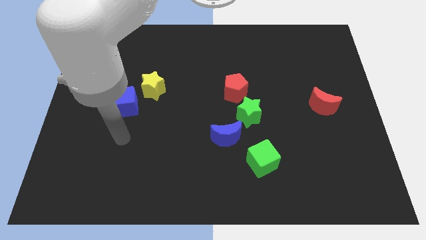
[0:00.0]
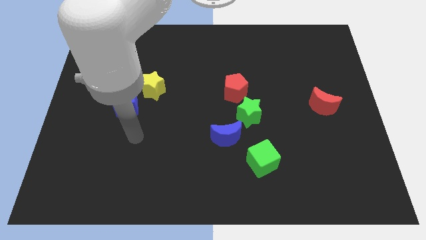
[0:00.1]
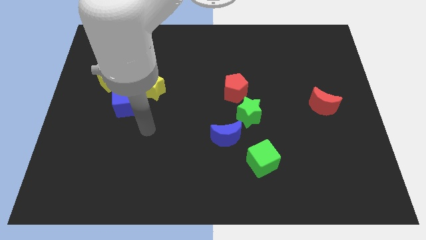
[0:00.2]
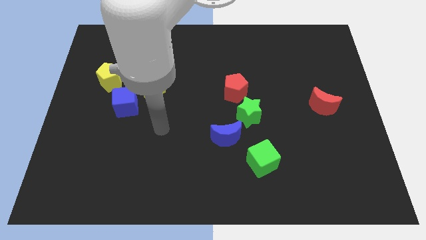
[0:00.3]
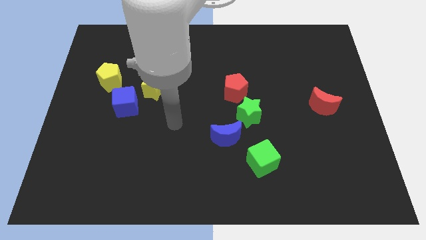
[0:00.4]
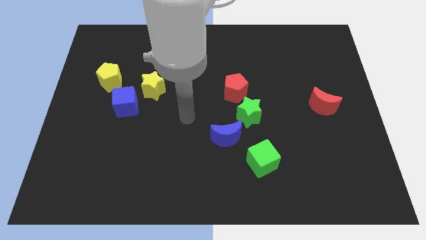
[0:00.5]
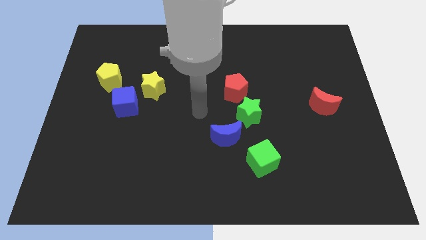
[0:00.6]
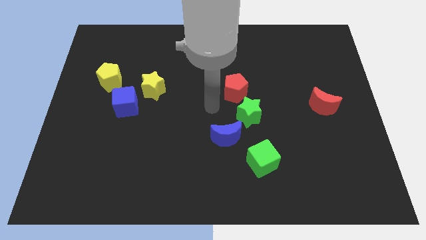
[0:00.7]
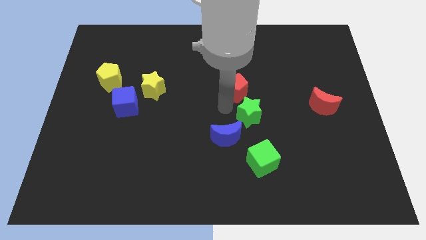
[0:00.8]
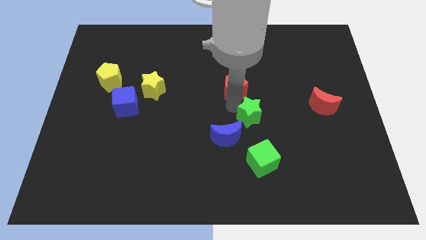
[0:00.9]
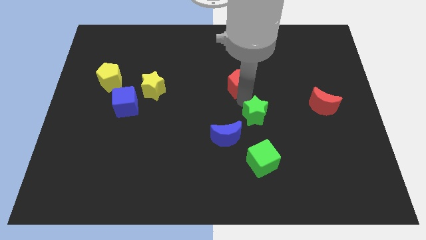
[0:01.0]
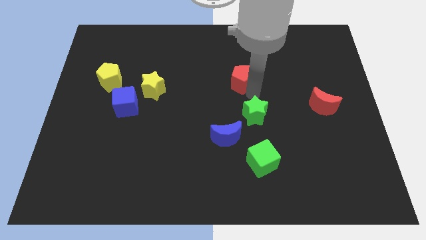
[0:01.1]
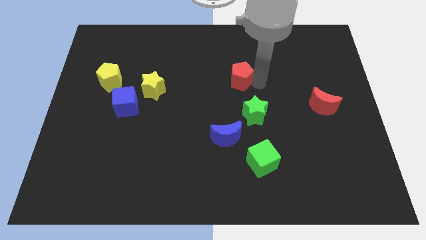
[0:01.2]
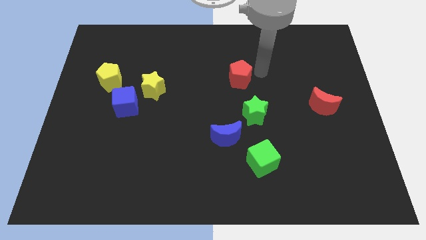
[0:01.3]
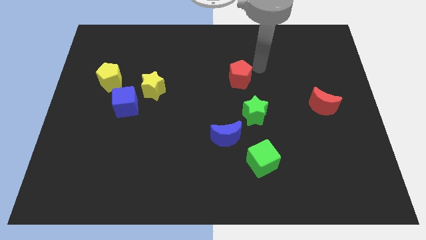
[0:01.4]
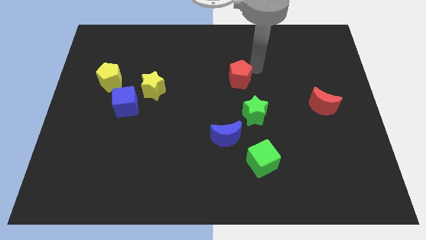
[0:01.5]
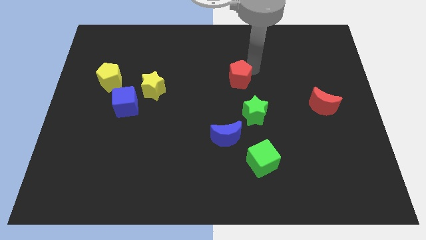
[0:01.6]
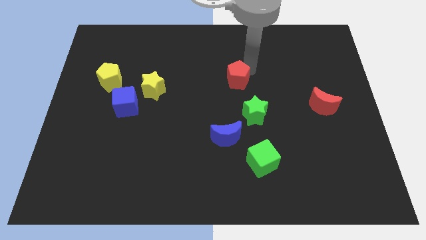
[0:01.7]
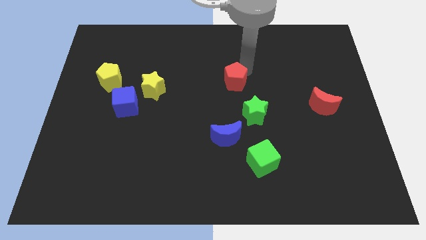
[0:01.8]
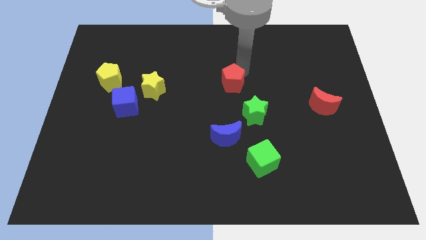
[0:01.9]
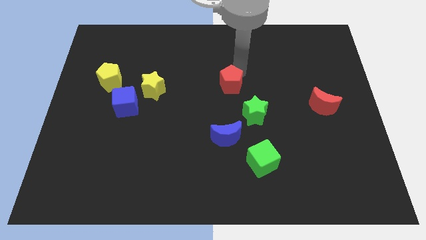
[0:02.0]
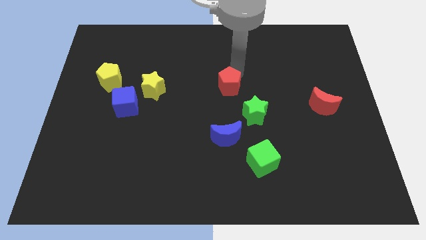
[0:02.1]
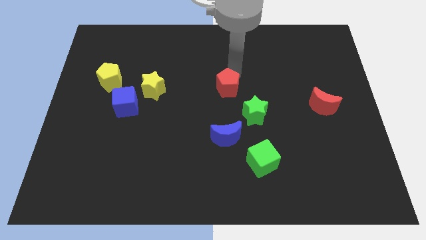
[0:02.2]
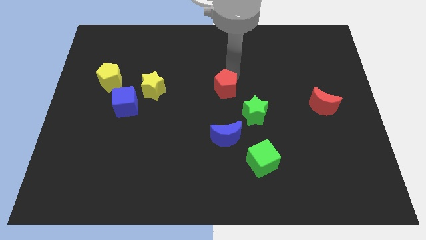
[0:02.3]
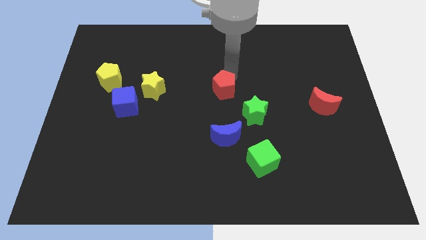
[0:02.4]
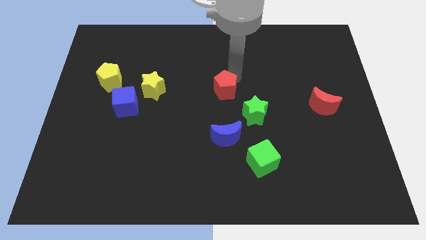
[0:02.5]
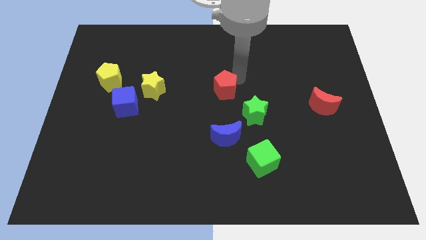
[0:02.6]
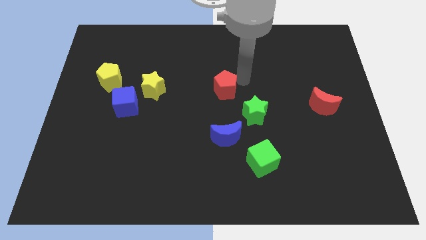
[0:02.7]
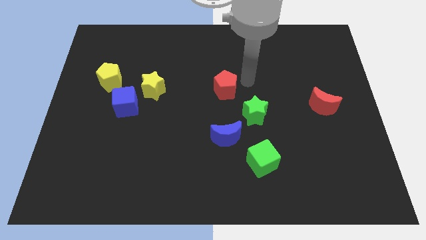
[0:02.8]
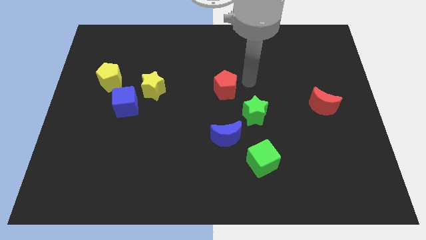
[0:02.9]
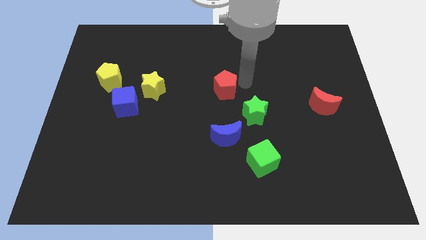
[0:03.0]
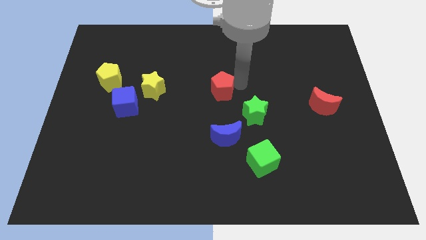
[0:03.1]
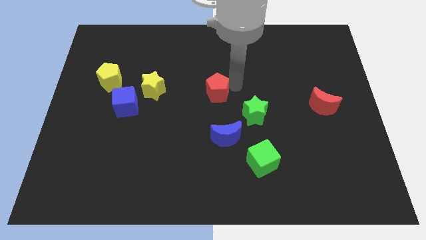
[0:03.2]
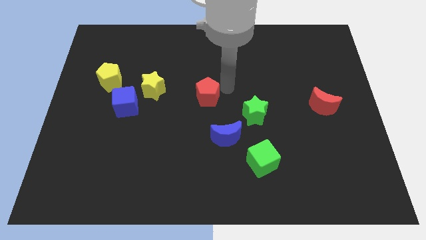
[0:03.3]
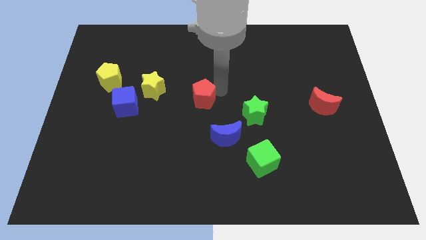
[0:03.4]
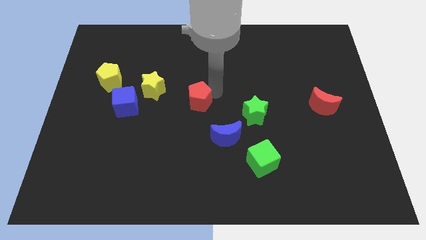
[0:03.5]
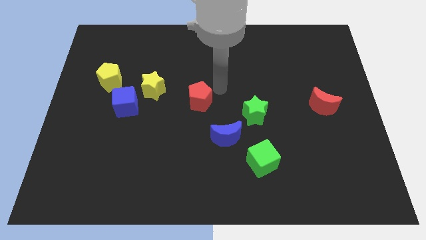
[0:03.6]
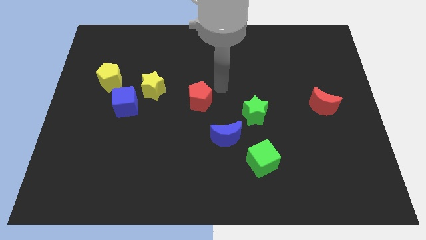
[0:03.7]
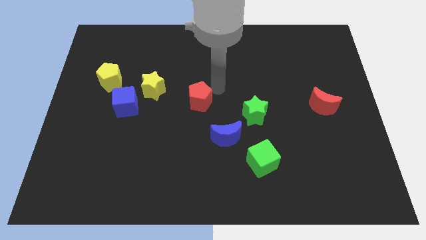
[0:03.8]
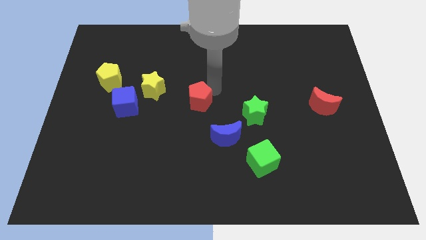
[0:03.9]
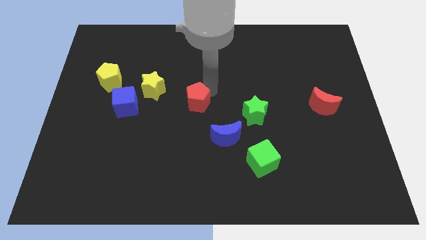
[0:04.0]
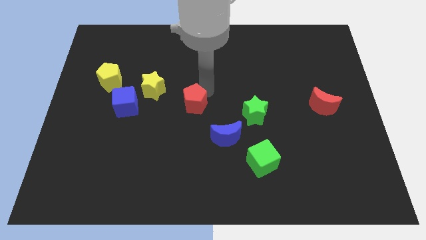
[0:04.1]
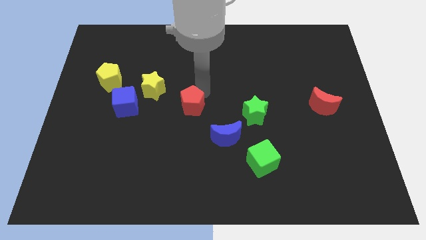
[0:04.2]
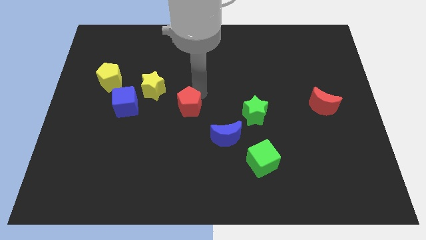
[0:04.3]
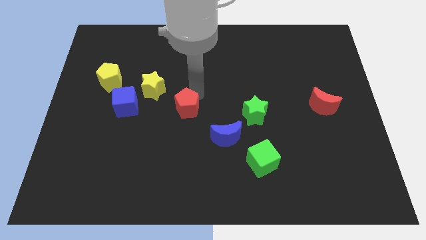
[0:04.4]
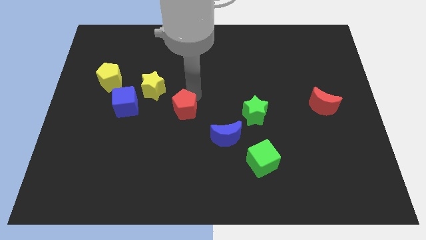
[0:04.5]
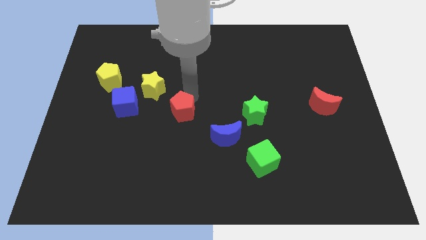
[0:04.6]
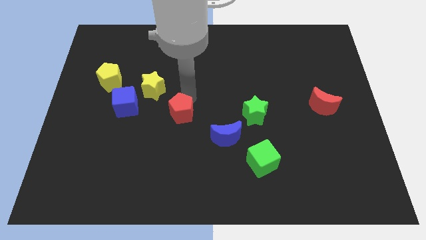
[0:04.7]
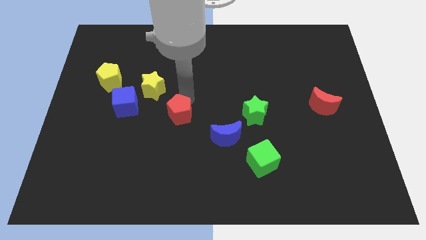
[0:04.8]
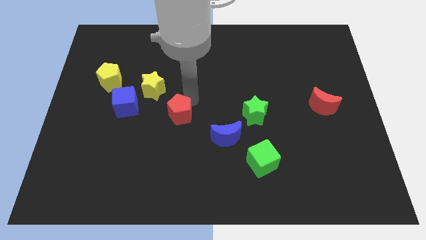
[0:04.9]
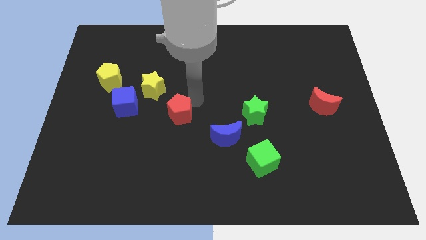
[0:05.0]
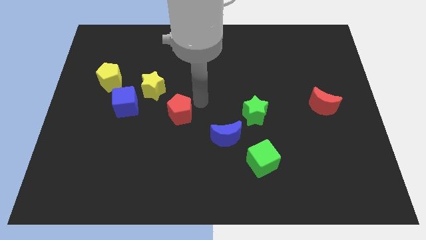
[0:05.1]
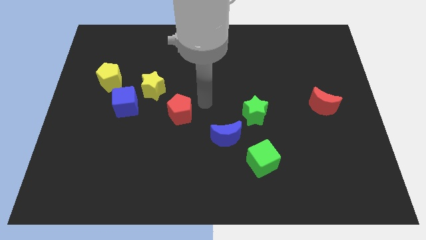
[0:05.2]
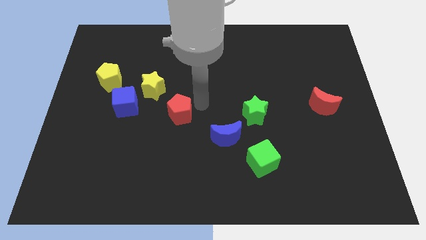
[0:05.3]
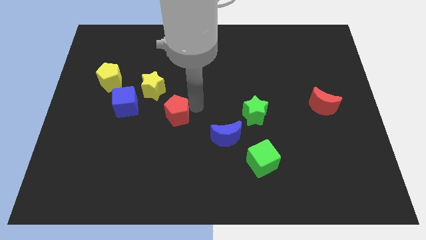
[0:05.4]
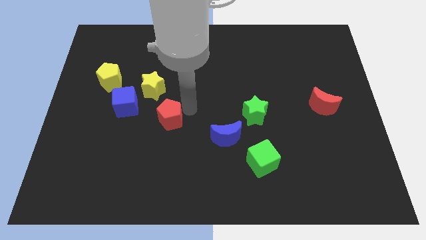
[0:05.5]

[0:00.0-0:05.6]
move the red pentagon to the bottom of the yellow star

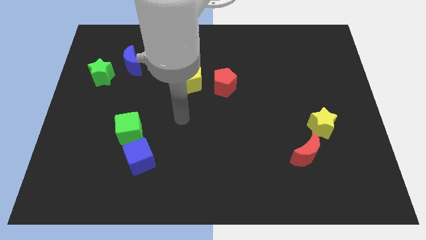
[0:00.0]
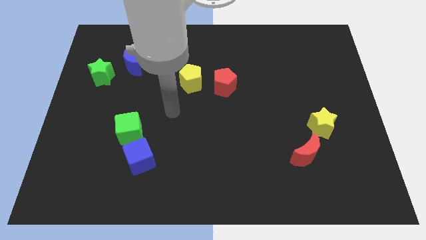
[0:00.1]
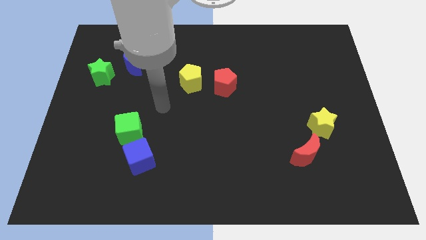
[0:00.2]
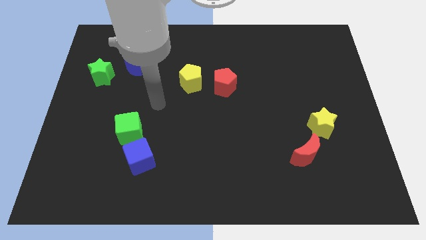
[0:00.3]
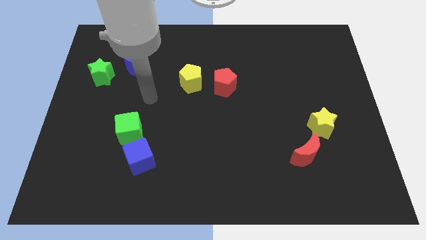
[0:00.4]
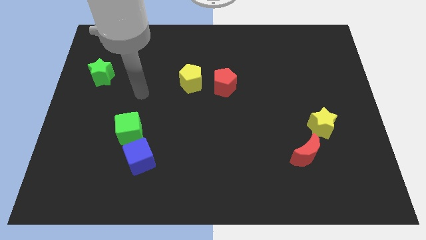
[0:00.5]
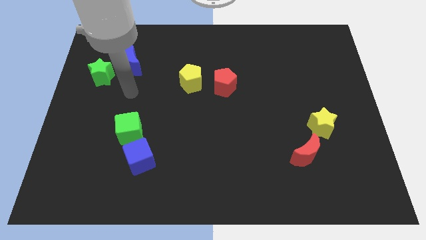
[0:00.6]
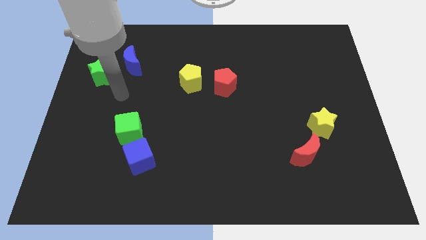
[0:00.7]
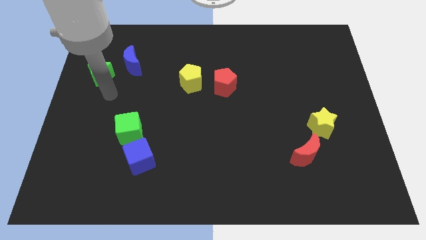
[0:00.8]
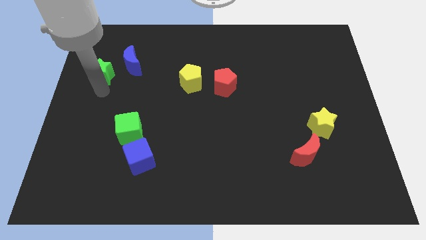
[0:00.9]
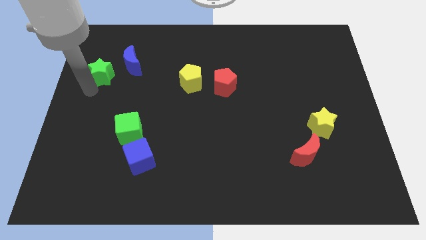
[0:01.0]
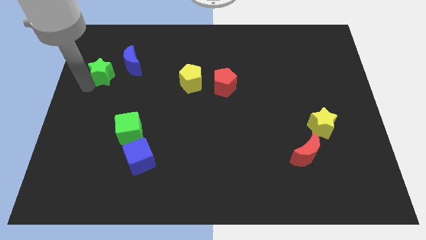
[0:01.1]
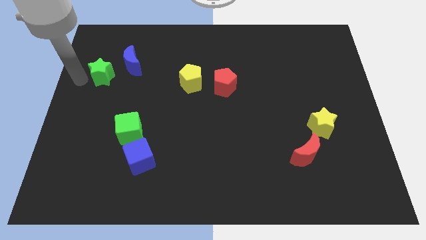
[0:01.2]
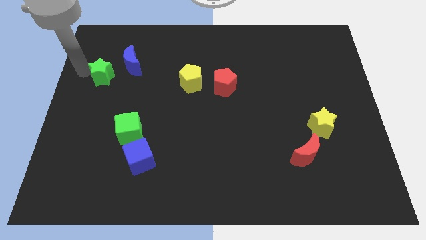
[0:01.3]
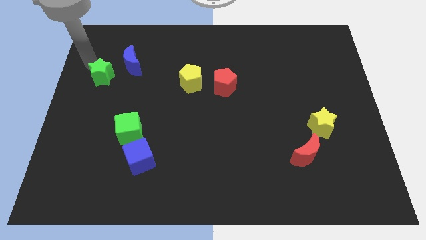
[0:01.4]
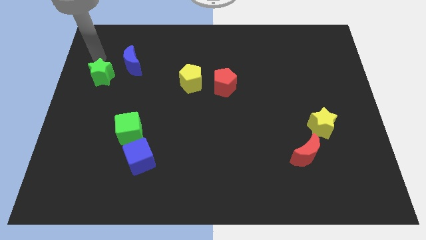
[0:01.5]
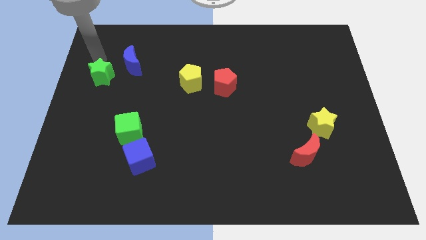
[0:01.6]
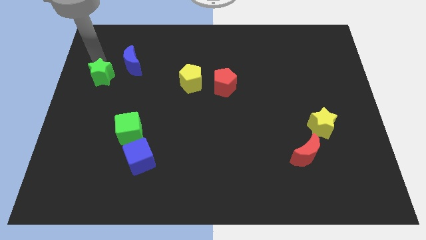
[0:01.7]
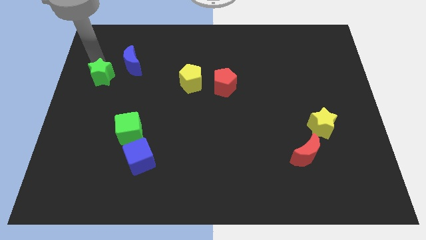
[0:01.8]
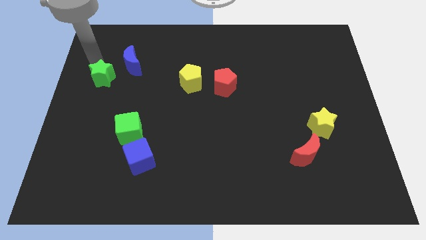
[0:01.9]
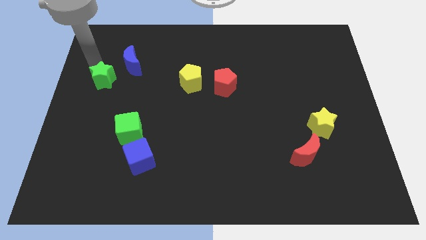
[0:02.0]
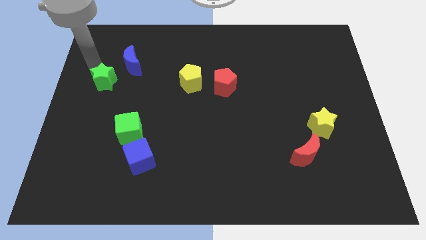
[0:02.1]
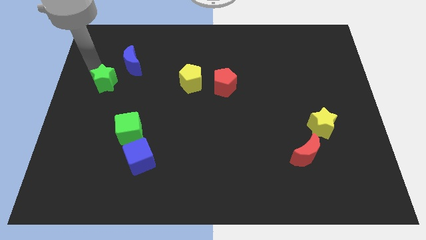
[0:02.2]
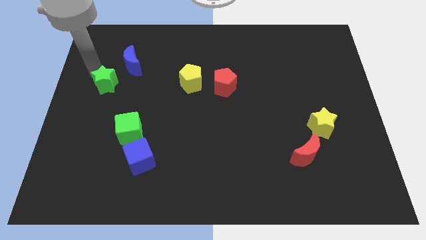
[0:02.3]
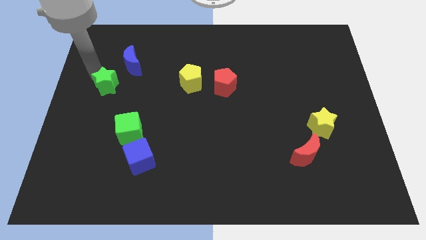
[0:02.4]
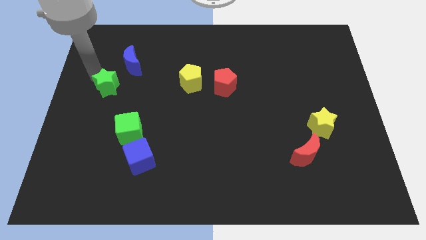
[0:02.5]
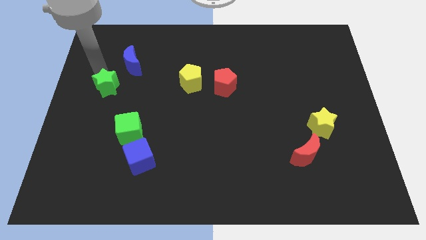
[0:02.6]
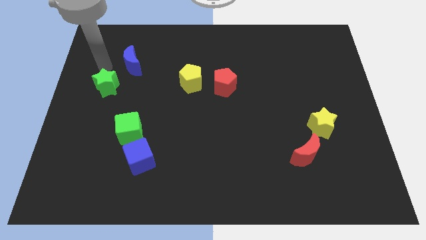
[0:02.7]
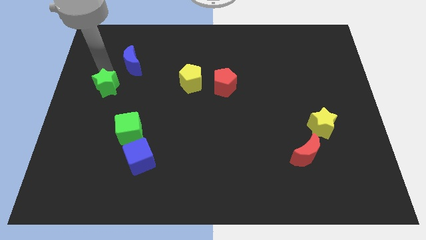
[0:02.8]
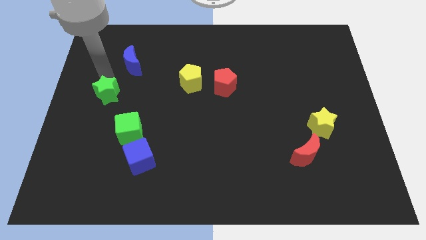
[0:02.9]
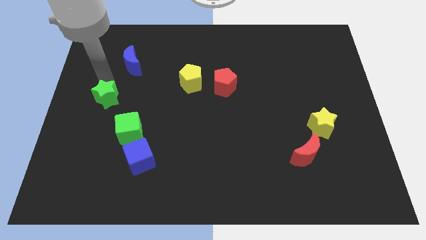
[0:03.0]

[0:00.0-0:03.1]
move the green star to the top left side of the green cube
